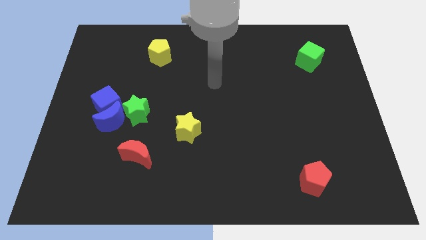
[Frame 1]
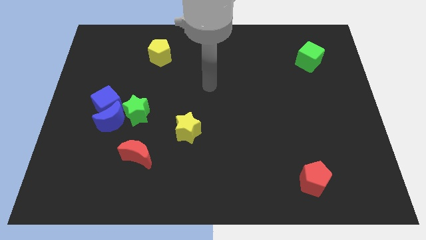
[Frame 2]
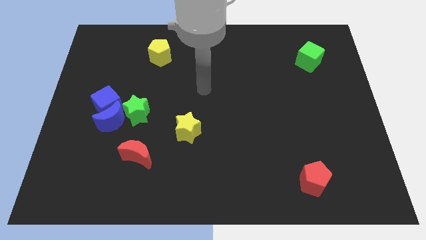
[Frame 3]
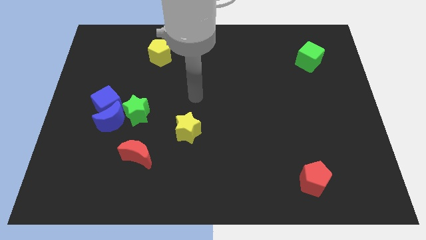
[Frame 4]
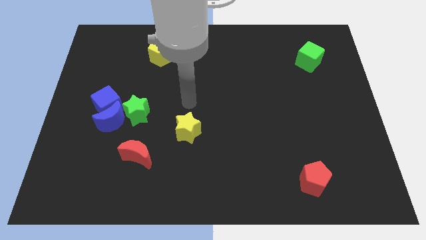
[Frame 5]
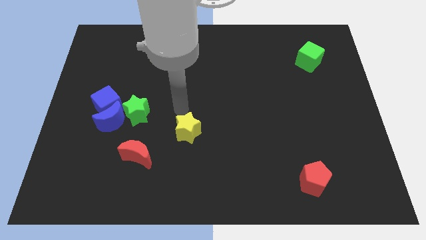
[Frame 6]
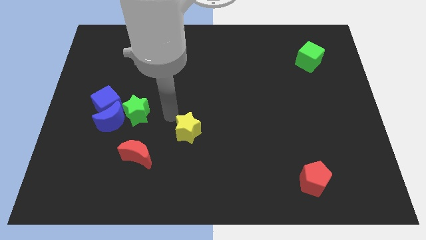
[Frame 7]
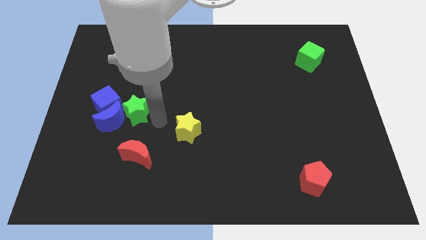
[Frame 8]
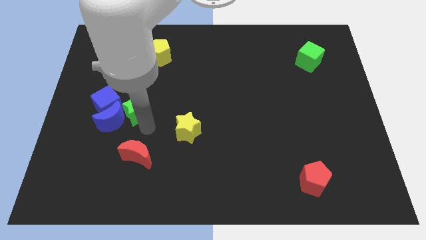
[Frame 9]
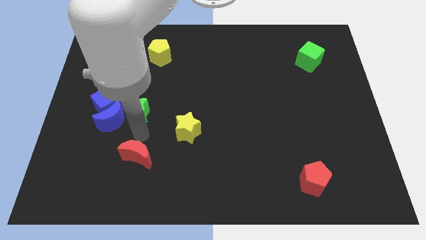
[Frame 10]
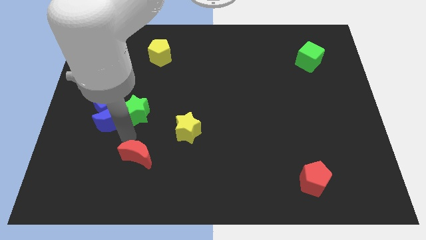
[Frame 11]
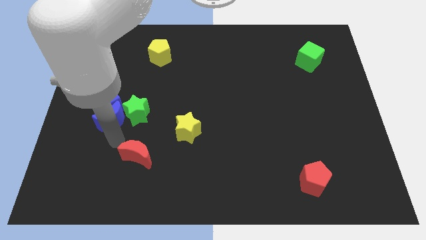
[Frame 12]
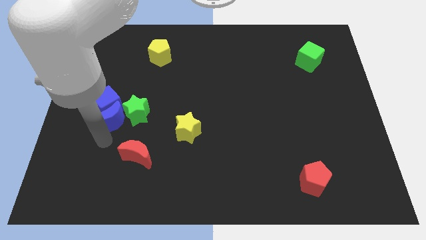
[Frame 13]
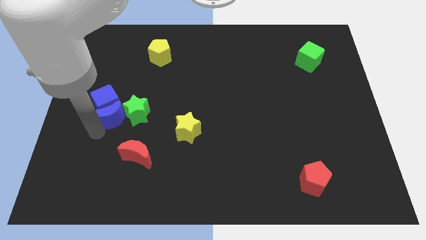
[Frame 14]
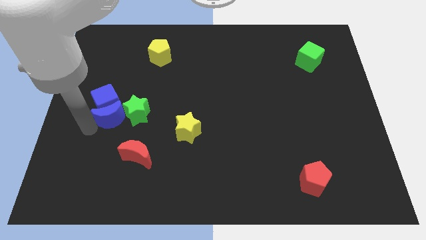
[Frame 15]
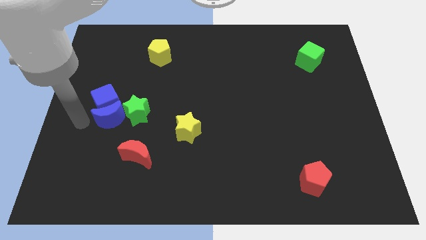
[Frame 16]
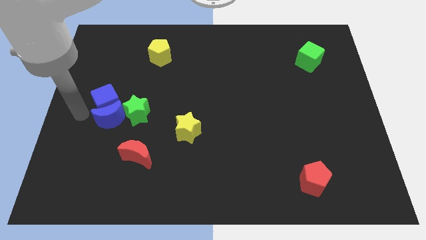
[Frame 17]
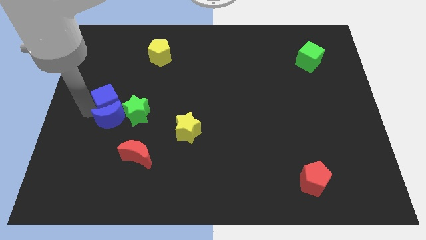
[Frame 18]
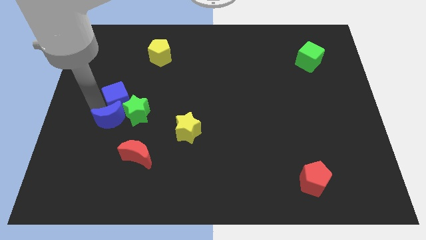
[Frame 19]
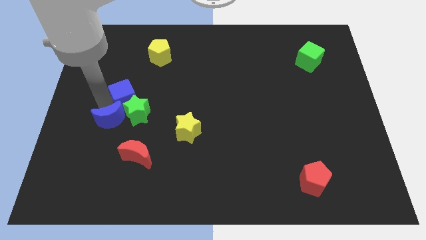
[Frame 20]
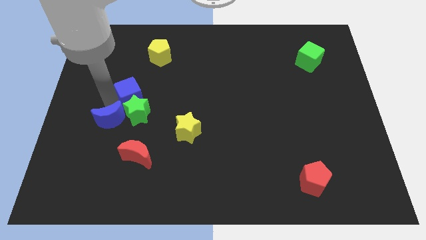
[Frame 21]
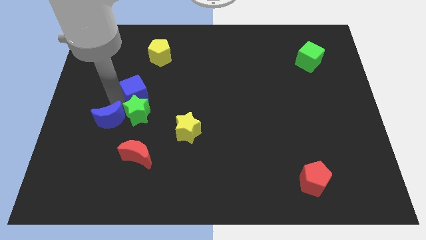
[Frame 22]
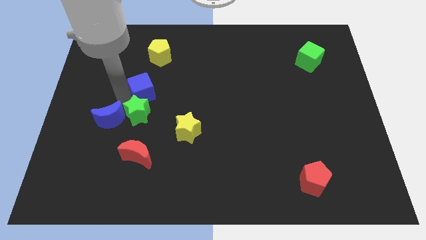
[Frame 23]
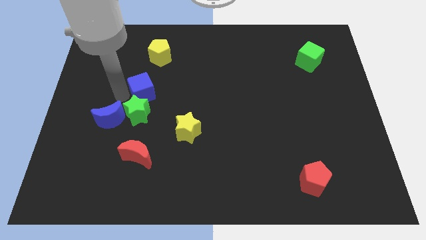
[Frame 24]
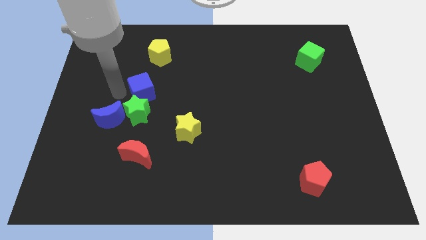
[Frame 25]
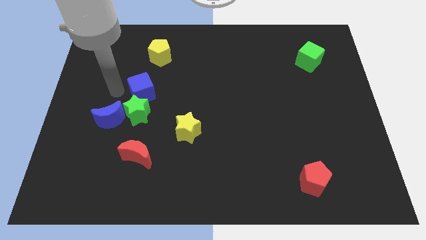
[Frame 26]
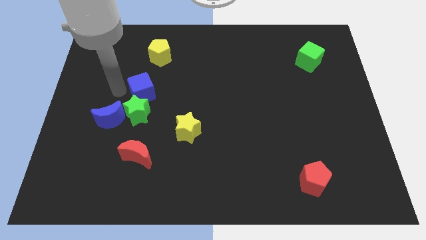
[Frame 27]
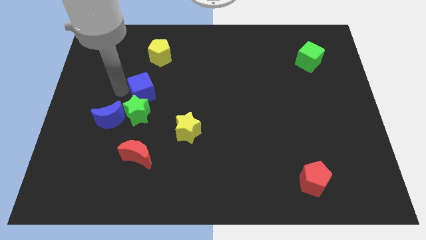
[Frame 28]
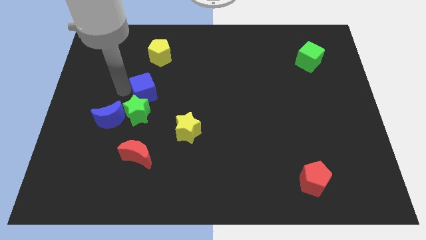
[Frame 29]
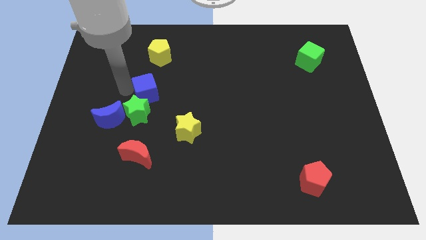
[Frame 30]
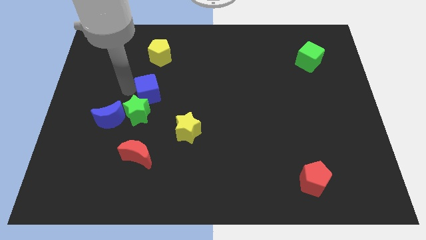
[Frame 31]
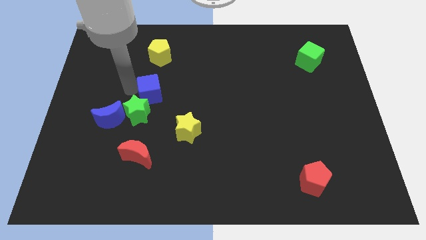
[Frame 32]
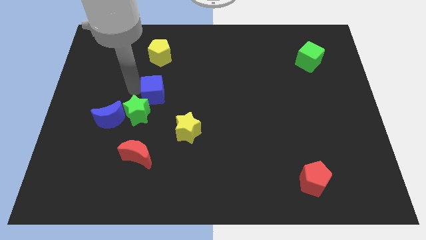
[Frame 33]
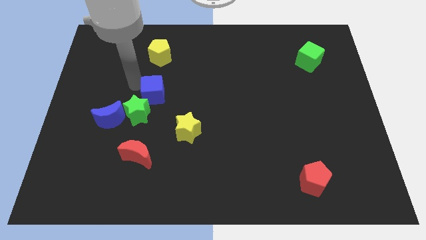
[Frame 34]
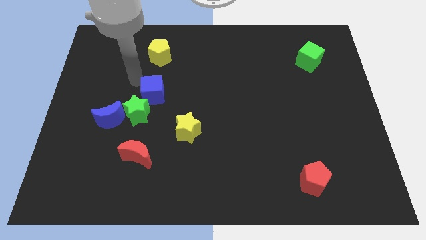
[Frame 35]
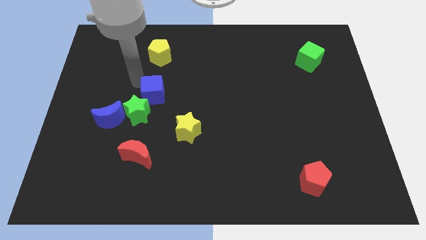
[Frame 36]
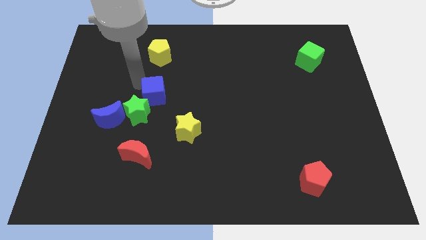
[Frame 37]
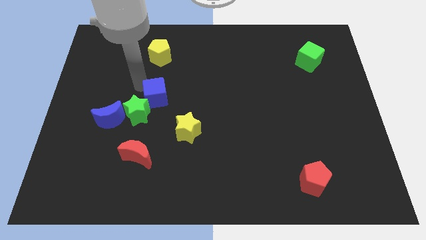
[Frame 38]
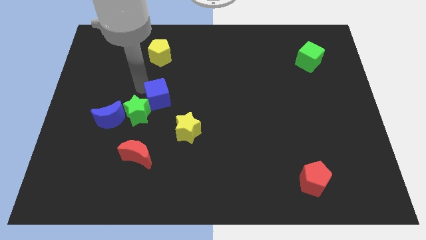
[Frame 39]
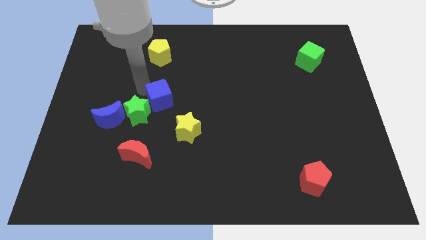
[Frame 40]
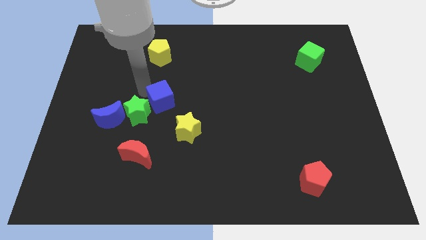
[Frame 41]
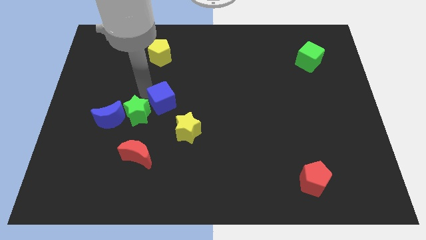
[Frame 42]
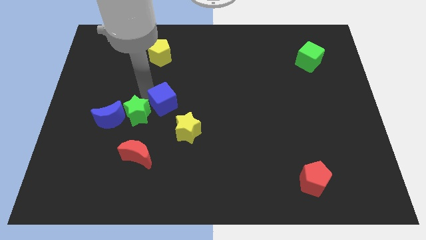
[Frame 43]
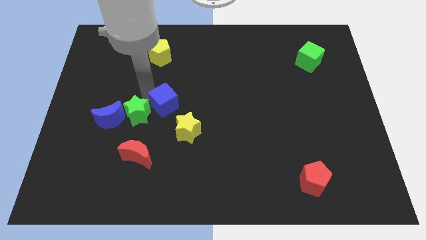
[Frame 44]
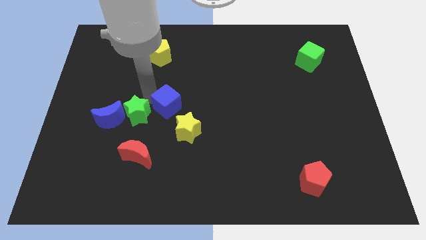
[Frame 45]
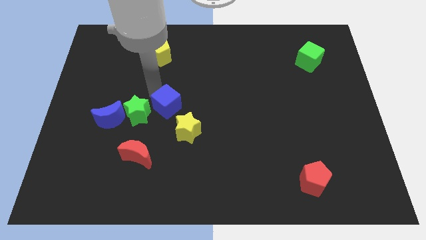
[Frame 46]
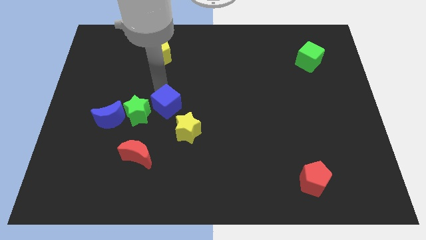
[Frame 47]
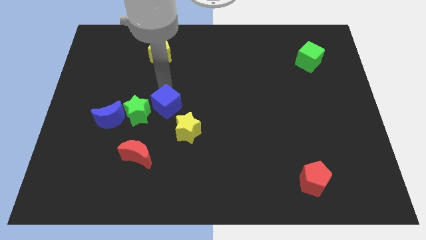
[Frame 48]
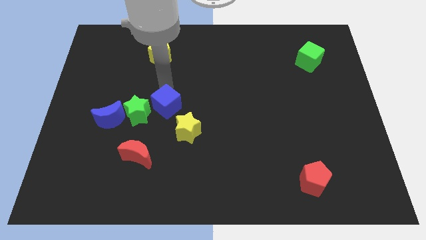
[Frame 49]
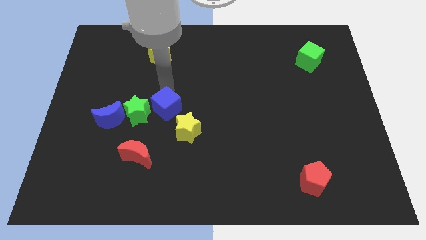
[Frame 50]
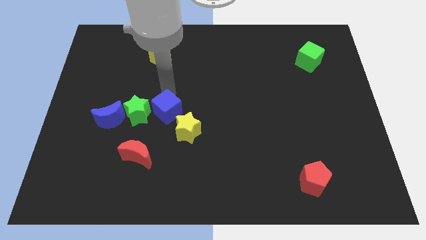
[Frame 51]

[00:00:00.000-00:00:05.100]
push the blue cube diagonally down and right a little

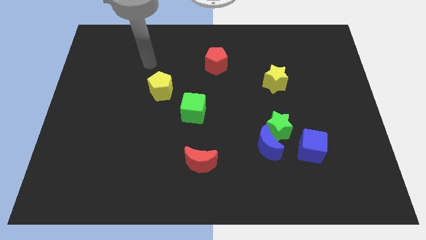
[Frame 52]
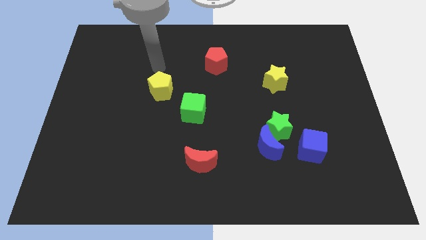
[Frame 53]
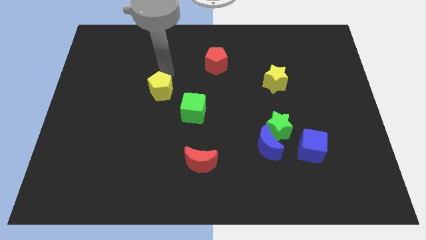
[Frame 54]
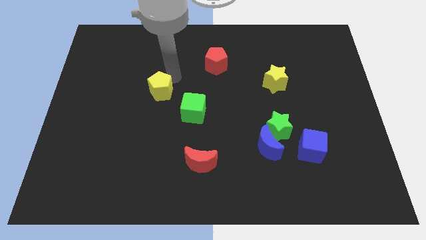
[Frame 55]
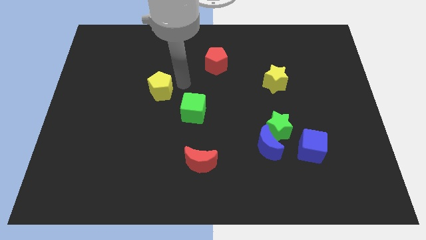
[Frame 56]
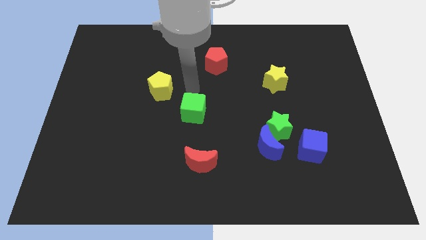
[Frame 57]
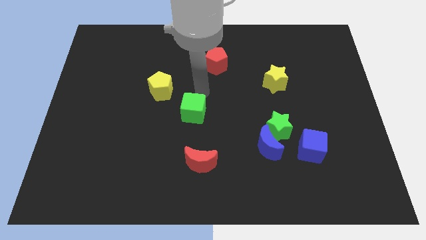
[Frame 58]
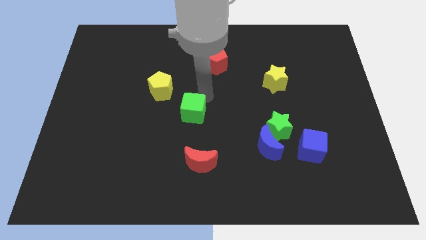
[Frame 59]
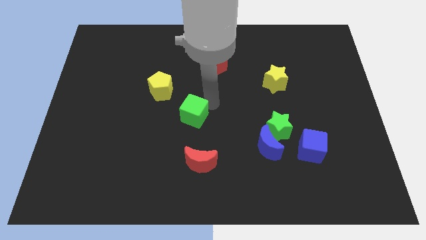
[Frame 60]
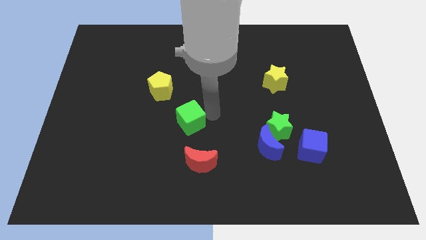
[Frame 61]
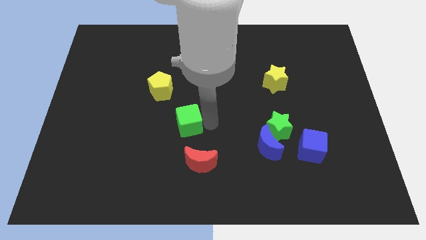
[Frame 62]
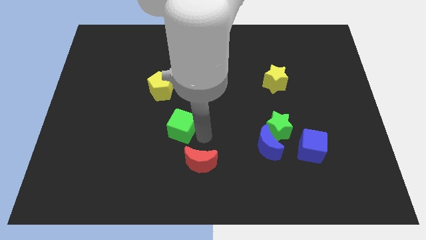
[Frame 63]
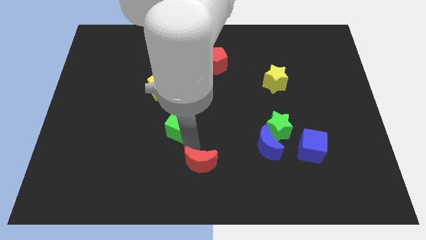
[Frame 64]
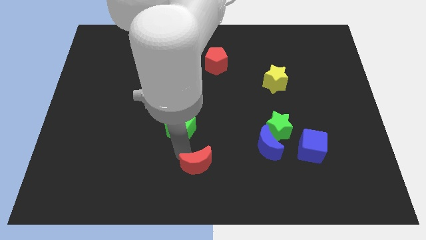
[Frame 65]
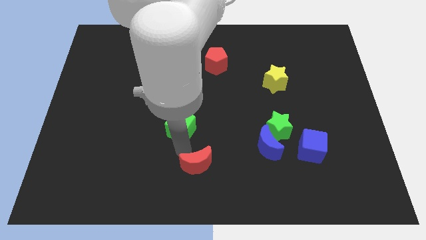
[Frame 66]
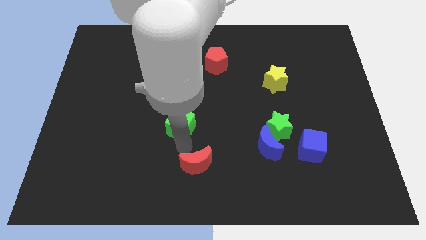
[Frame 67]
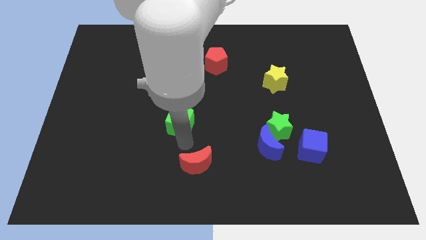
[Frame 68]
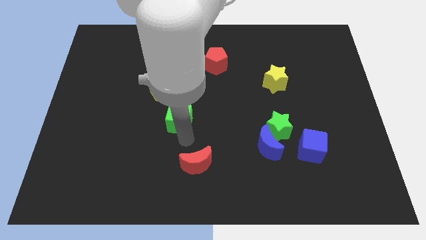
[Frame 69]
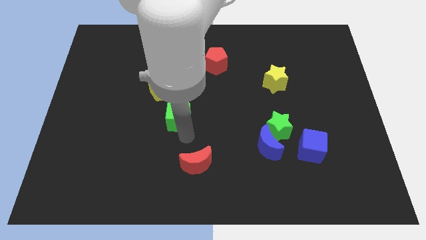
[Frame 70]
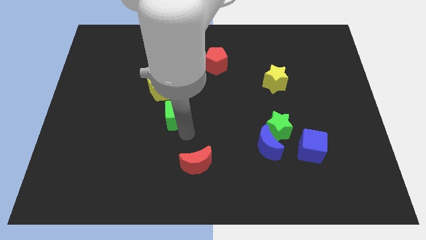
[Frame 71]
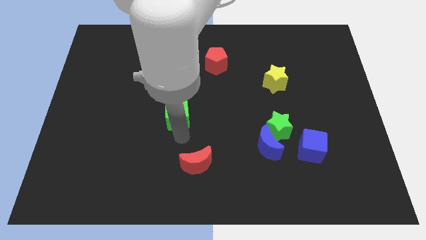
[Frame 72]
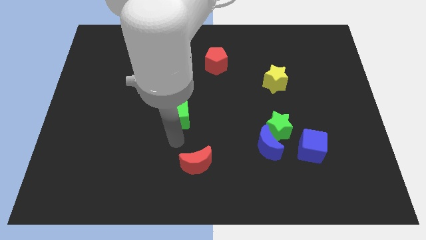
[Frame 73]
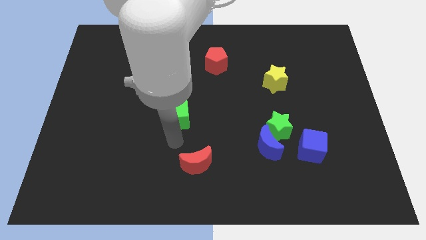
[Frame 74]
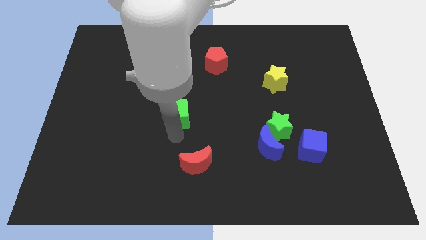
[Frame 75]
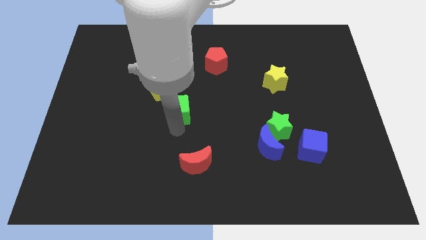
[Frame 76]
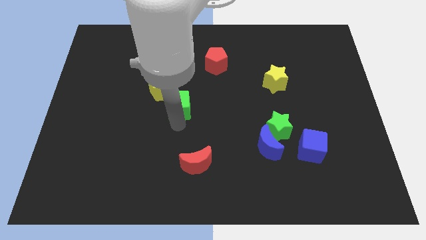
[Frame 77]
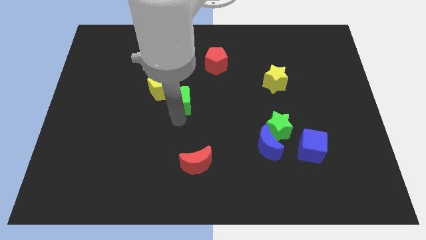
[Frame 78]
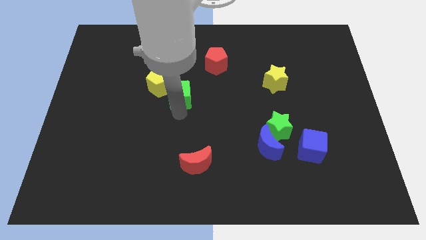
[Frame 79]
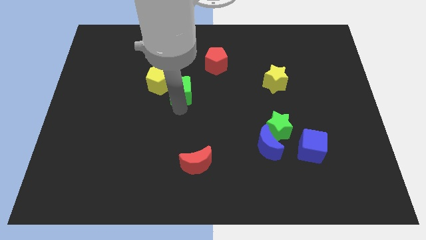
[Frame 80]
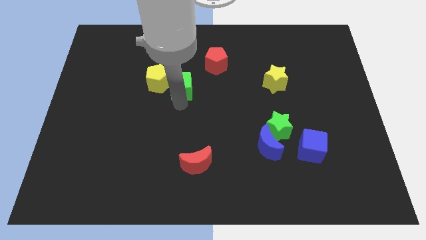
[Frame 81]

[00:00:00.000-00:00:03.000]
slide the green cube up and left diagonally slightly

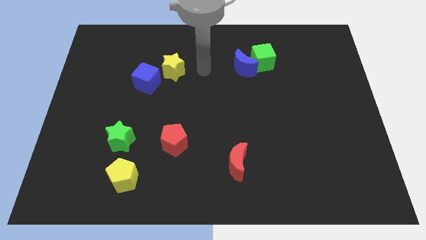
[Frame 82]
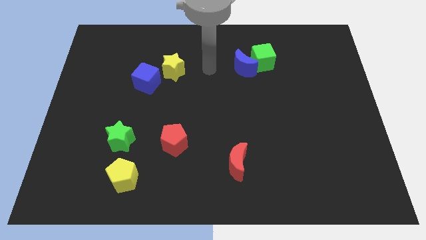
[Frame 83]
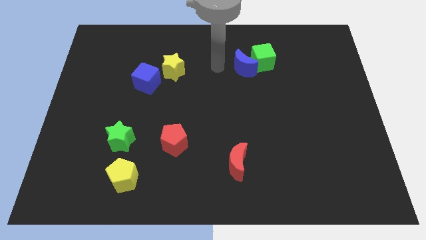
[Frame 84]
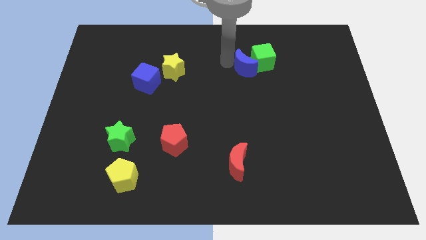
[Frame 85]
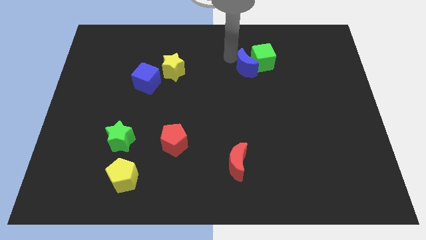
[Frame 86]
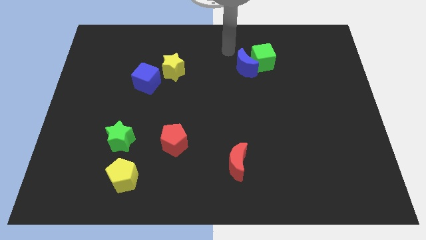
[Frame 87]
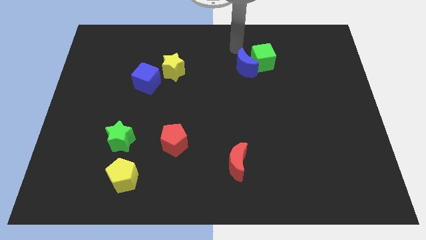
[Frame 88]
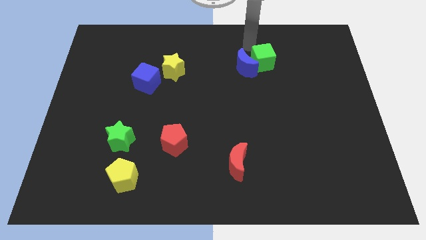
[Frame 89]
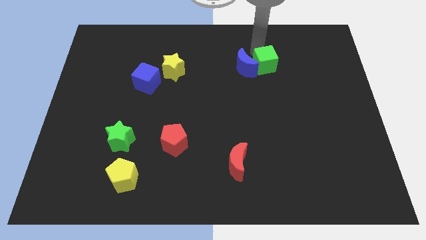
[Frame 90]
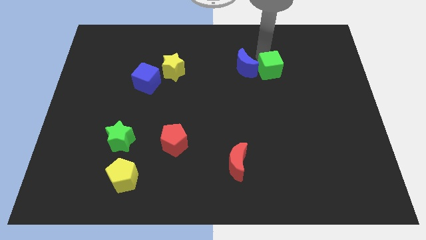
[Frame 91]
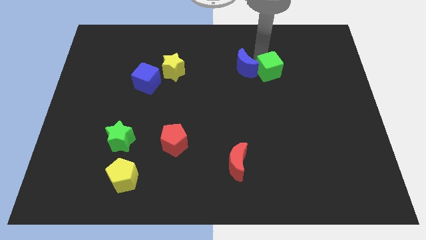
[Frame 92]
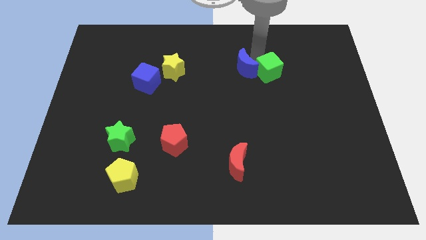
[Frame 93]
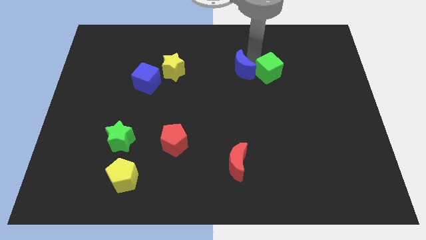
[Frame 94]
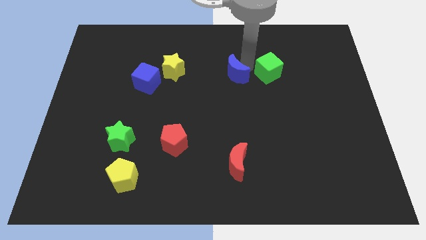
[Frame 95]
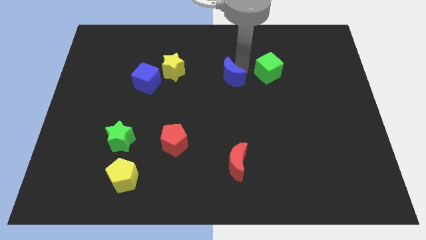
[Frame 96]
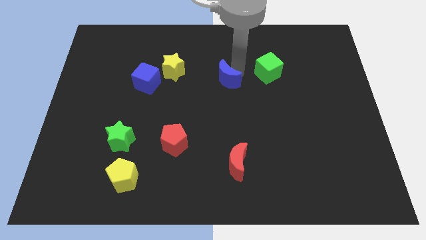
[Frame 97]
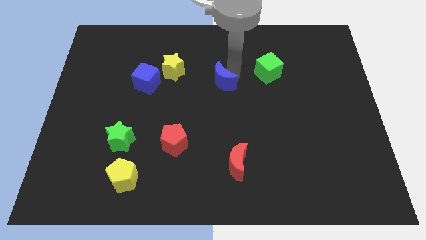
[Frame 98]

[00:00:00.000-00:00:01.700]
slightly push the blue moon downwards and then left
